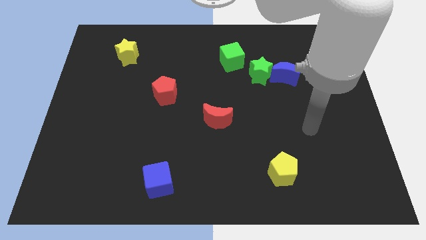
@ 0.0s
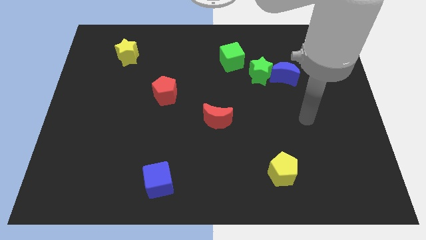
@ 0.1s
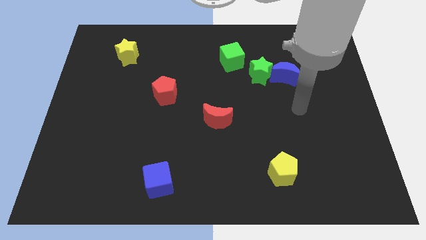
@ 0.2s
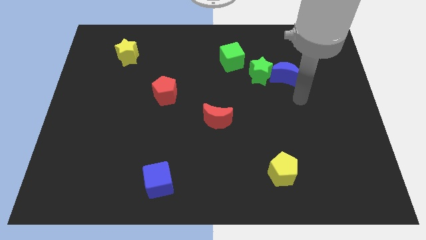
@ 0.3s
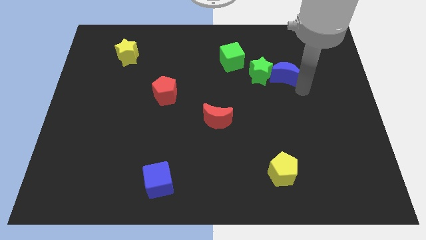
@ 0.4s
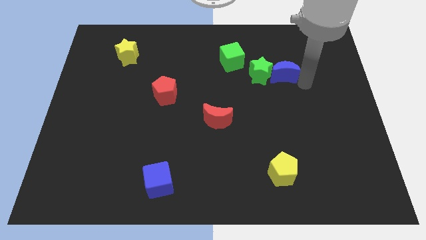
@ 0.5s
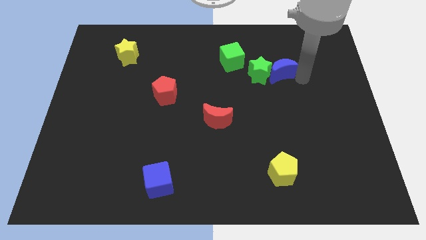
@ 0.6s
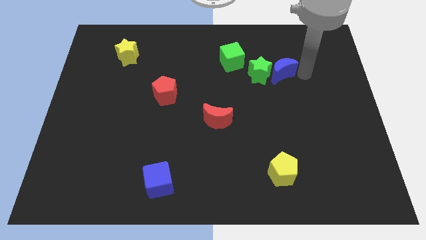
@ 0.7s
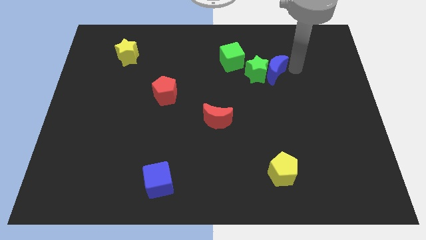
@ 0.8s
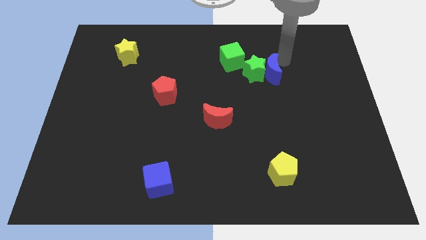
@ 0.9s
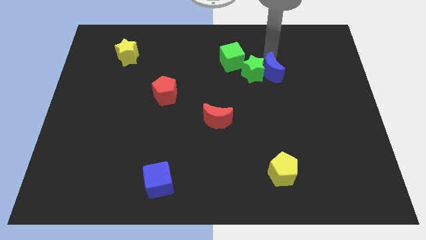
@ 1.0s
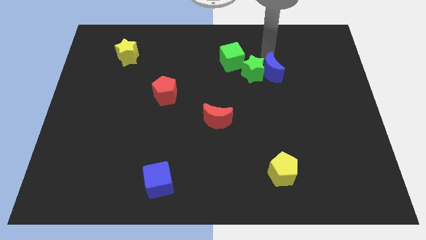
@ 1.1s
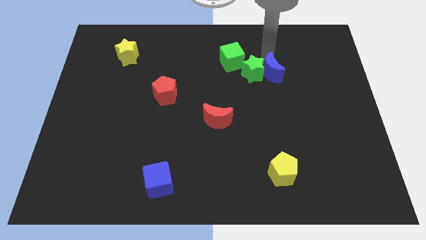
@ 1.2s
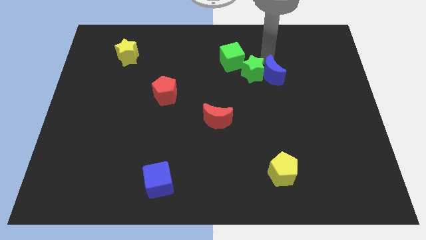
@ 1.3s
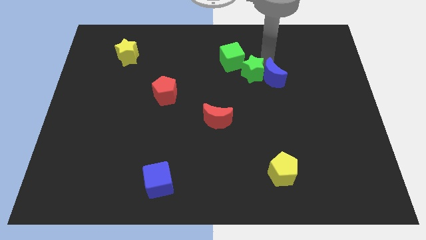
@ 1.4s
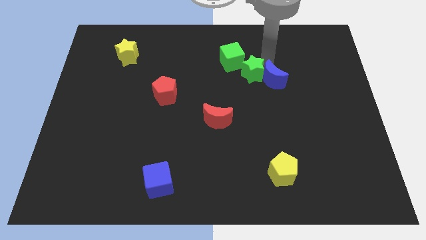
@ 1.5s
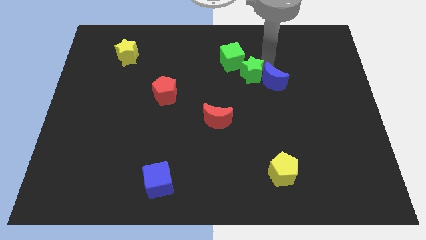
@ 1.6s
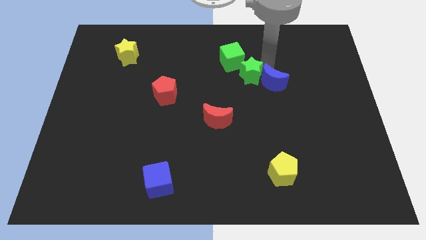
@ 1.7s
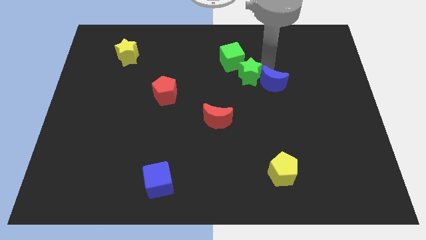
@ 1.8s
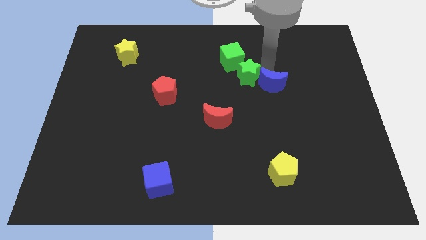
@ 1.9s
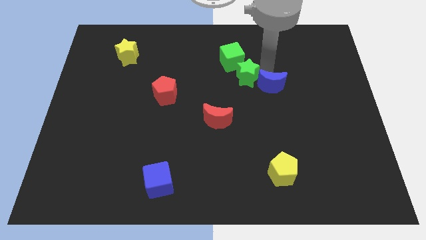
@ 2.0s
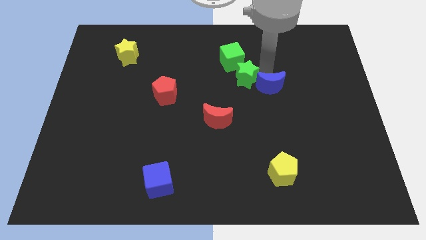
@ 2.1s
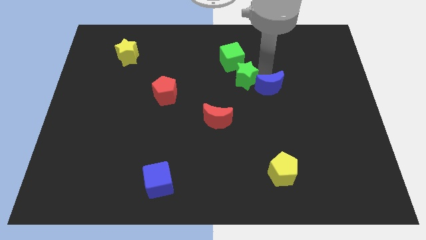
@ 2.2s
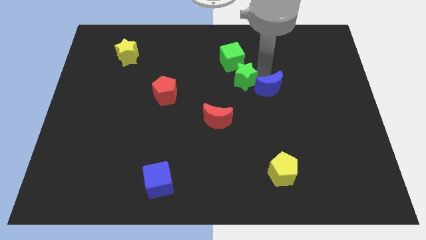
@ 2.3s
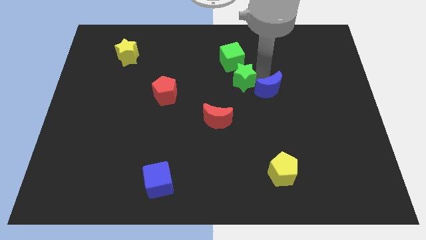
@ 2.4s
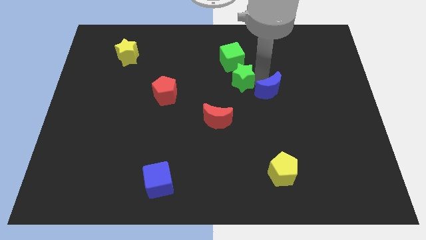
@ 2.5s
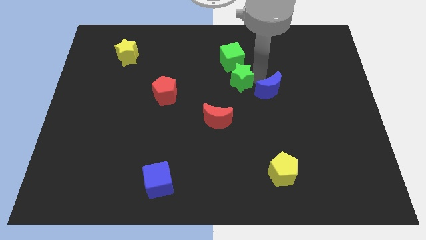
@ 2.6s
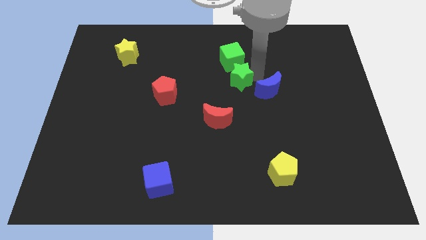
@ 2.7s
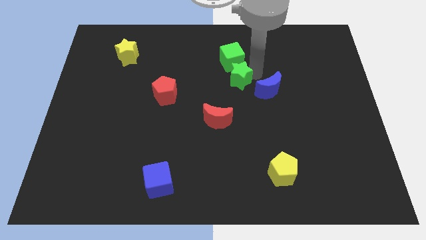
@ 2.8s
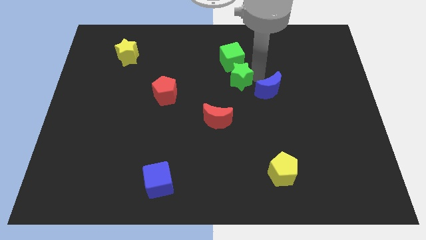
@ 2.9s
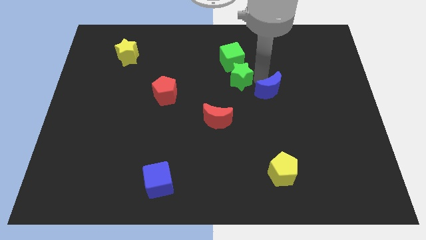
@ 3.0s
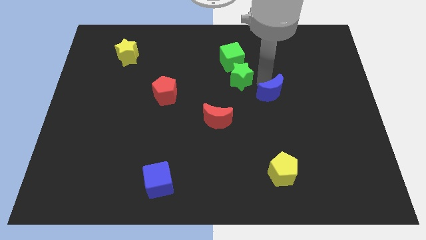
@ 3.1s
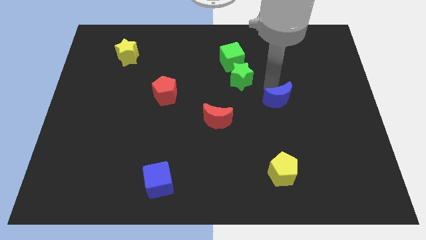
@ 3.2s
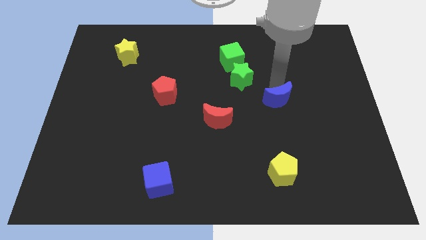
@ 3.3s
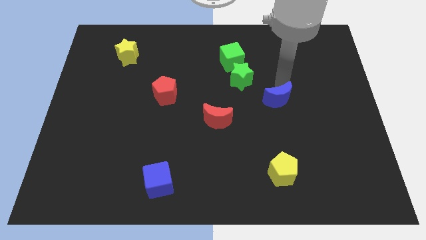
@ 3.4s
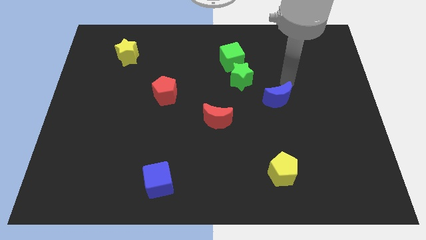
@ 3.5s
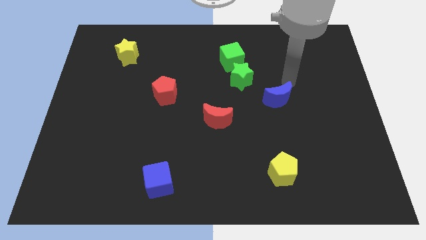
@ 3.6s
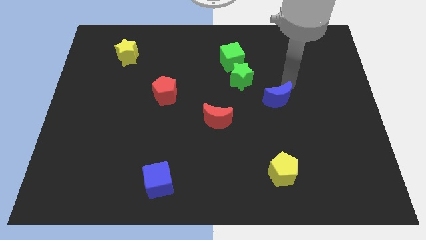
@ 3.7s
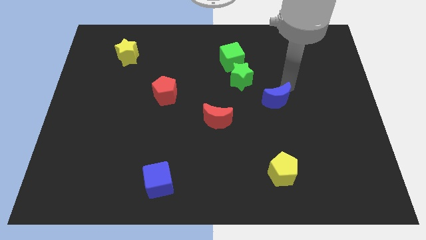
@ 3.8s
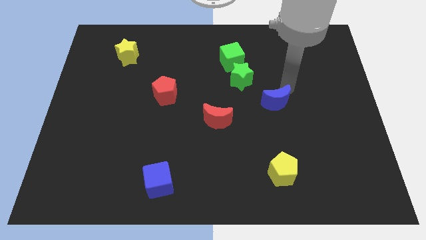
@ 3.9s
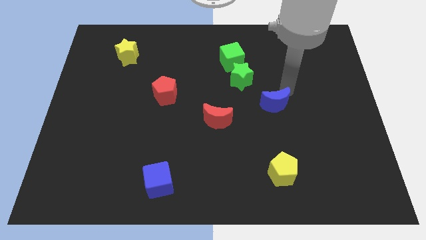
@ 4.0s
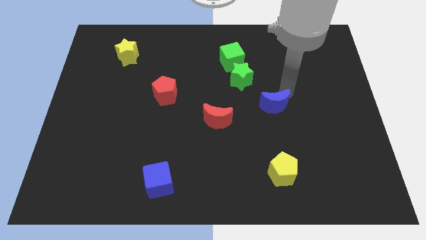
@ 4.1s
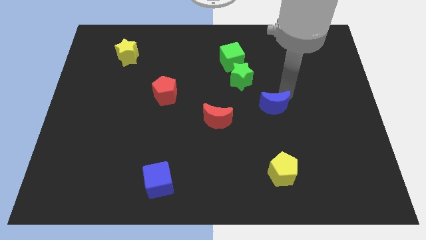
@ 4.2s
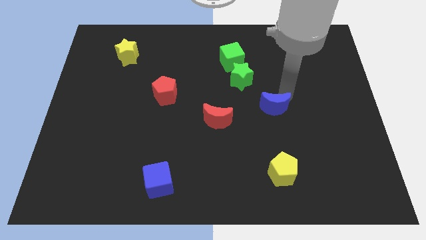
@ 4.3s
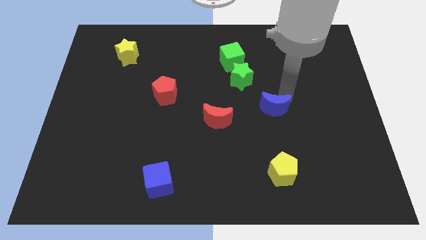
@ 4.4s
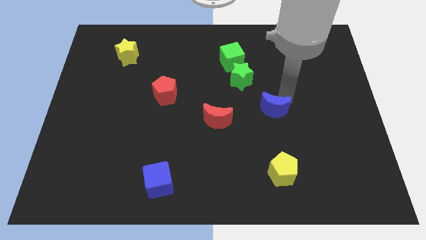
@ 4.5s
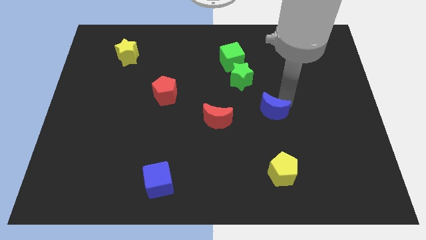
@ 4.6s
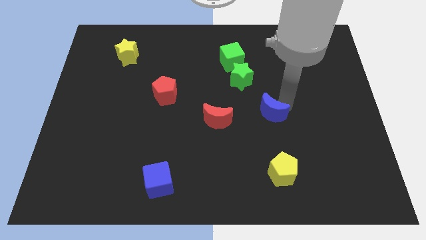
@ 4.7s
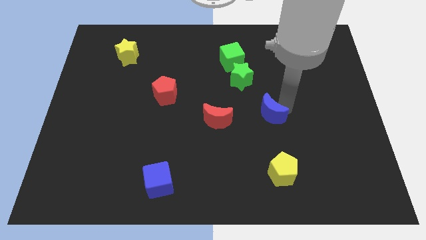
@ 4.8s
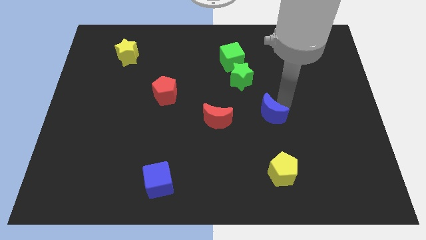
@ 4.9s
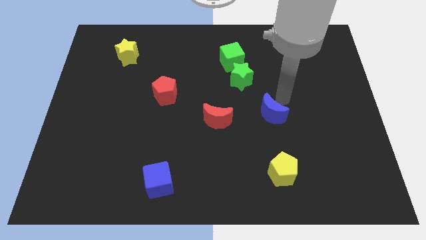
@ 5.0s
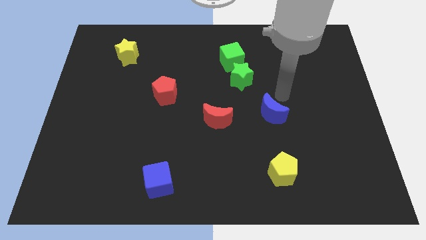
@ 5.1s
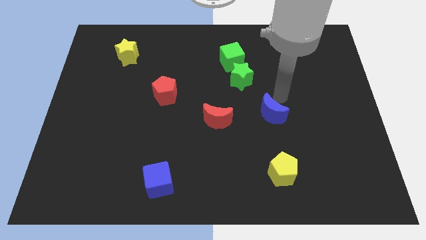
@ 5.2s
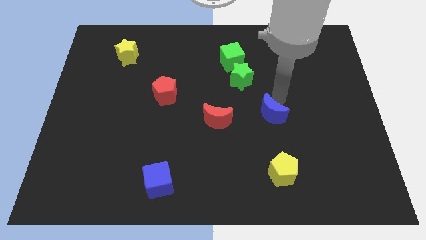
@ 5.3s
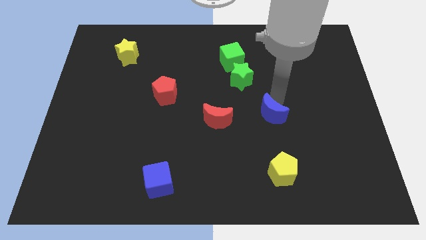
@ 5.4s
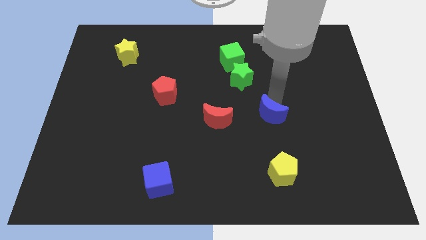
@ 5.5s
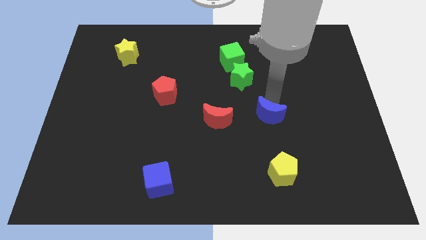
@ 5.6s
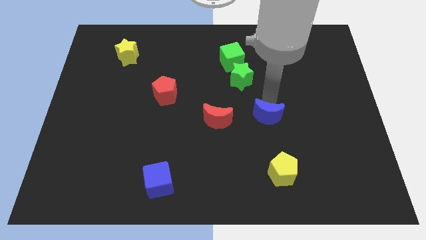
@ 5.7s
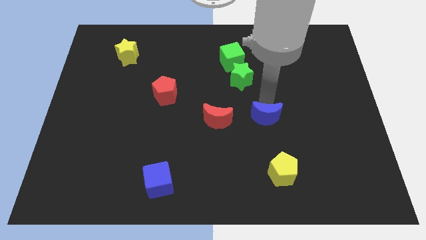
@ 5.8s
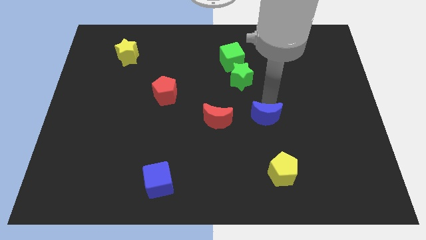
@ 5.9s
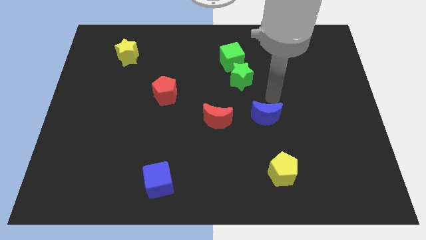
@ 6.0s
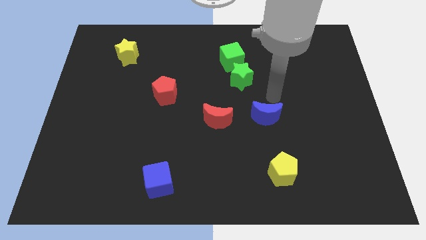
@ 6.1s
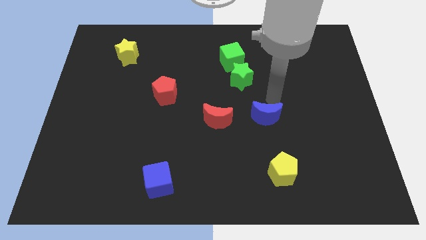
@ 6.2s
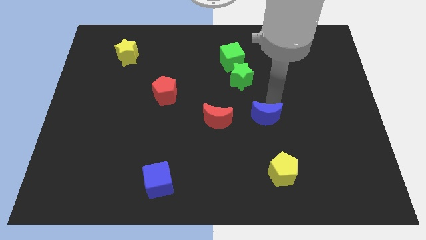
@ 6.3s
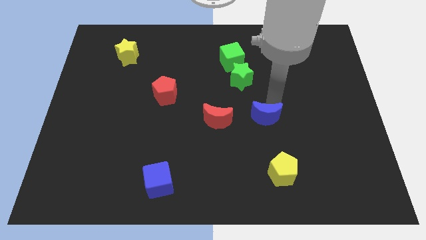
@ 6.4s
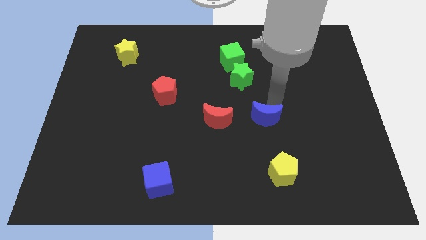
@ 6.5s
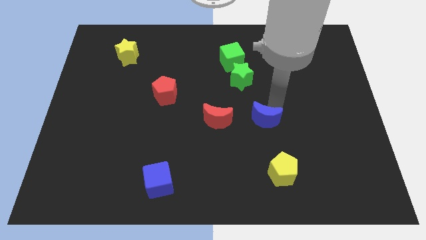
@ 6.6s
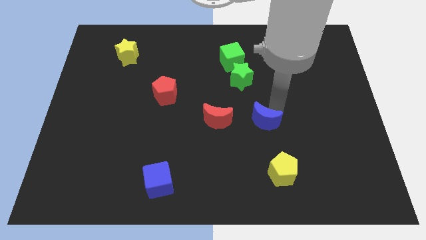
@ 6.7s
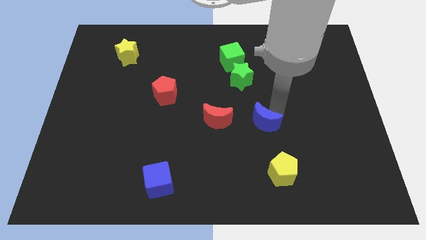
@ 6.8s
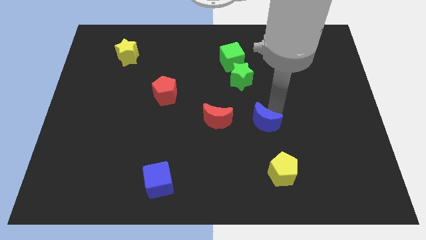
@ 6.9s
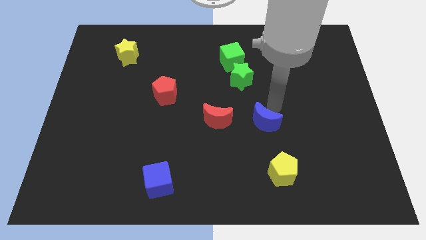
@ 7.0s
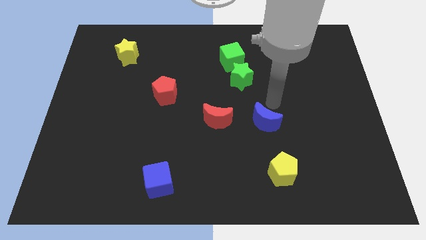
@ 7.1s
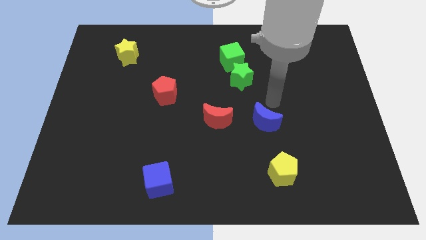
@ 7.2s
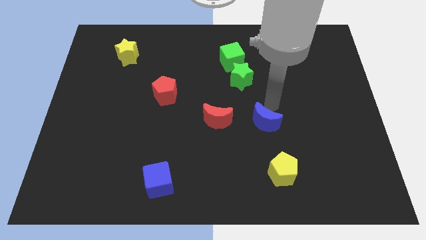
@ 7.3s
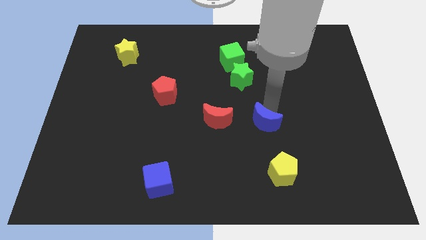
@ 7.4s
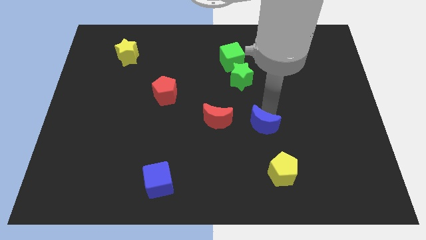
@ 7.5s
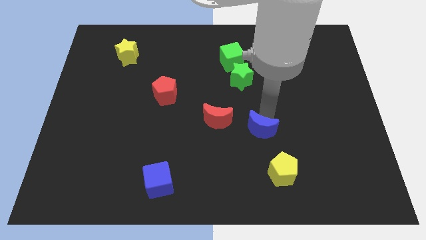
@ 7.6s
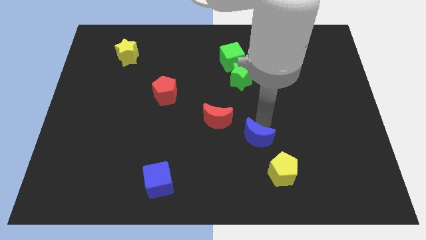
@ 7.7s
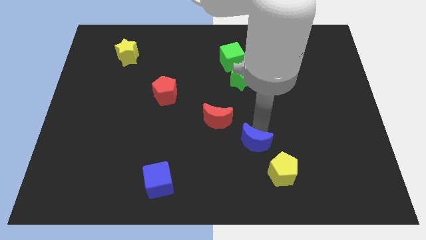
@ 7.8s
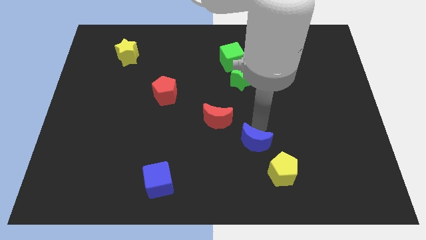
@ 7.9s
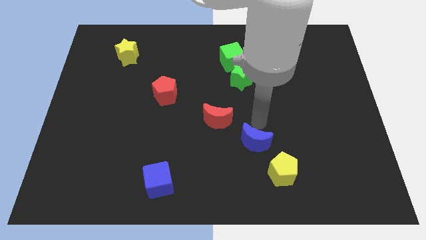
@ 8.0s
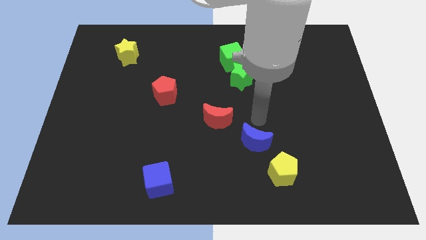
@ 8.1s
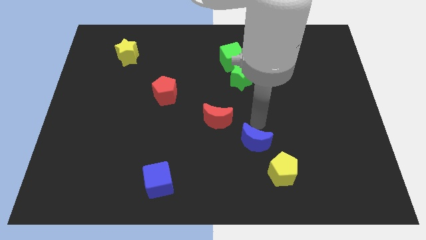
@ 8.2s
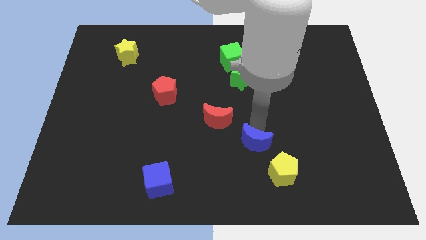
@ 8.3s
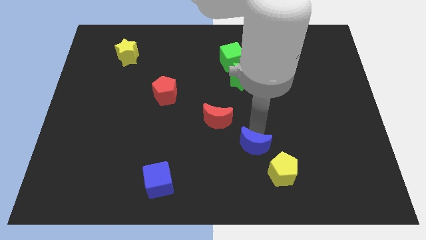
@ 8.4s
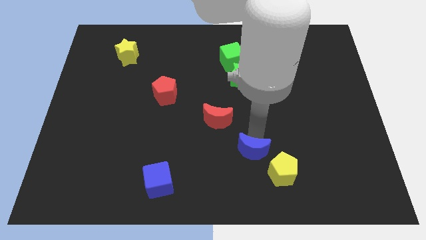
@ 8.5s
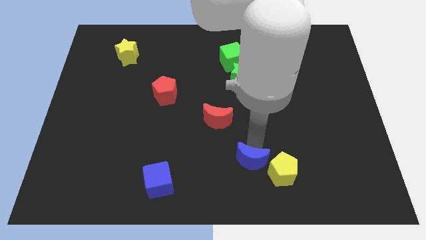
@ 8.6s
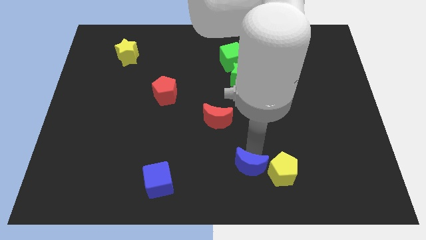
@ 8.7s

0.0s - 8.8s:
move the blue moon to the bottom side
